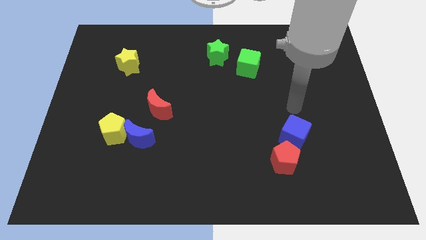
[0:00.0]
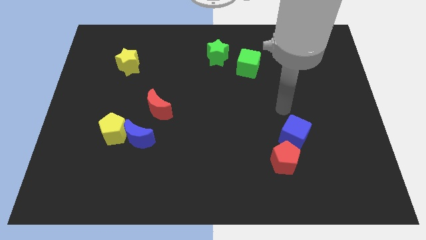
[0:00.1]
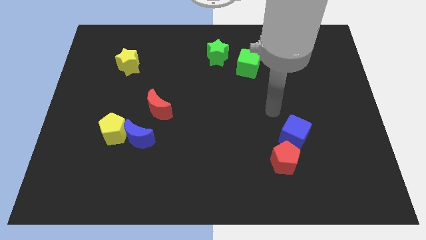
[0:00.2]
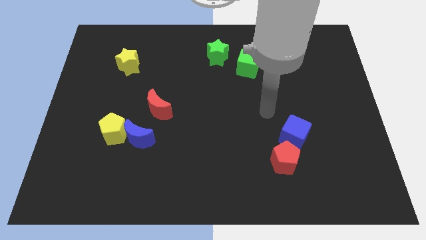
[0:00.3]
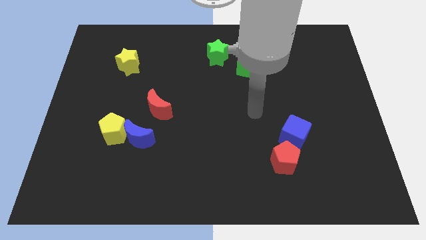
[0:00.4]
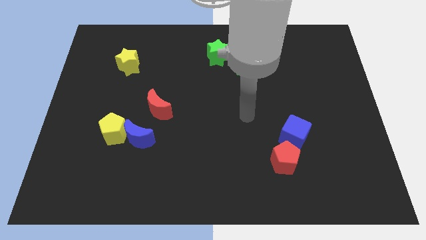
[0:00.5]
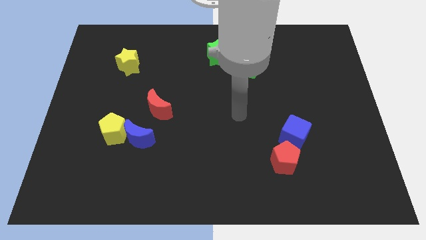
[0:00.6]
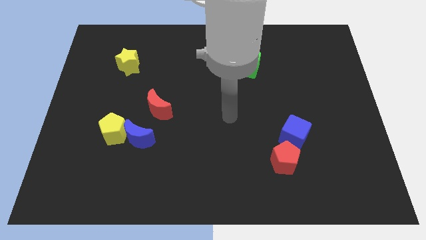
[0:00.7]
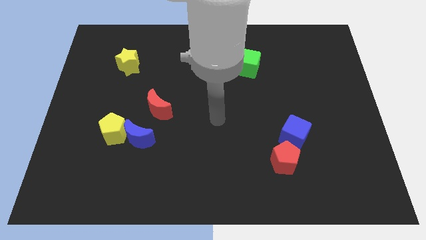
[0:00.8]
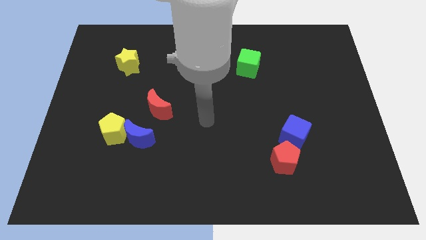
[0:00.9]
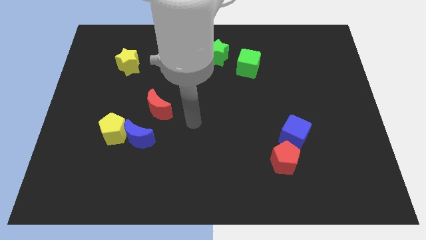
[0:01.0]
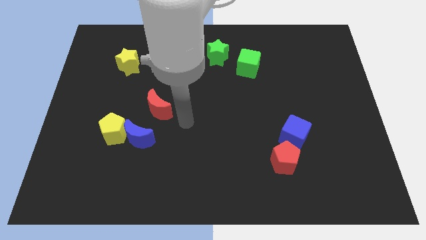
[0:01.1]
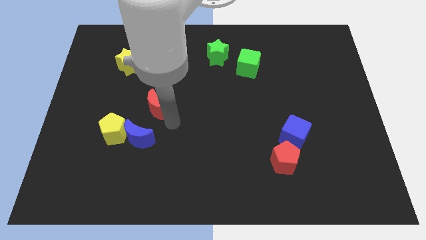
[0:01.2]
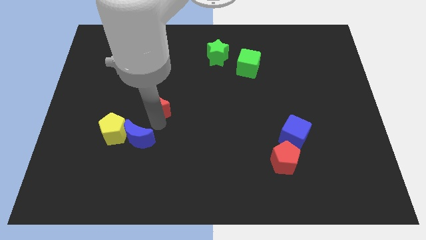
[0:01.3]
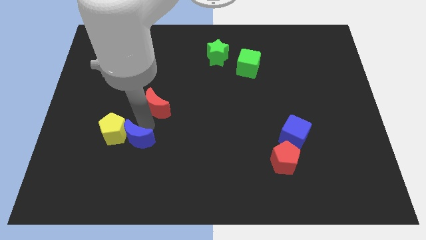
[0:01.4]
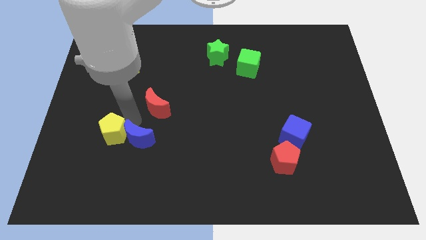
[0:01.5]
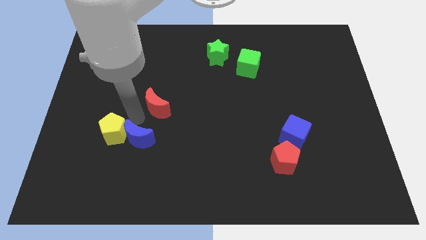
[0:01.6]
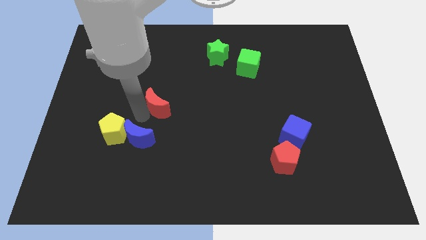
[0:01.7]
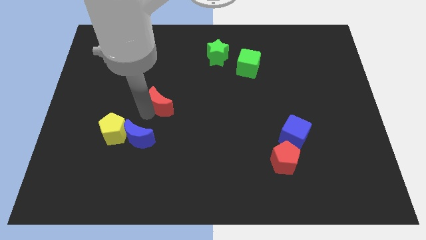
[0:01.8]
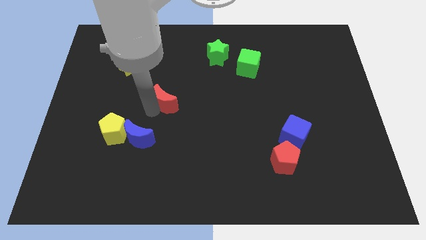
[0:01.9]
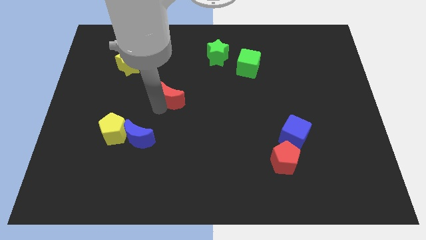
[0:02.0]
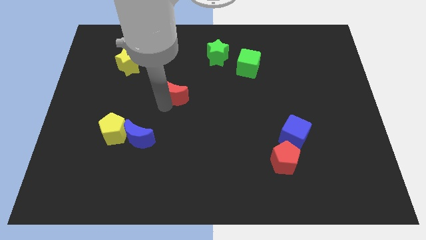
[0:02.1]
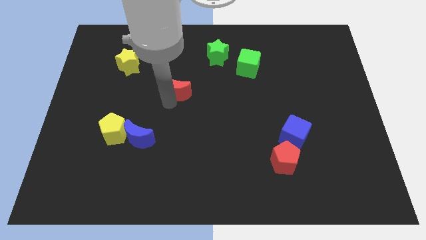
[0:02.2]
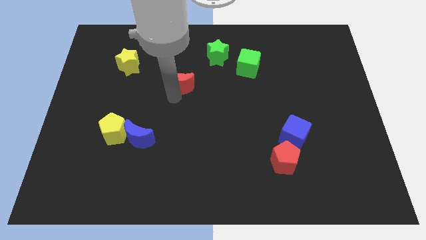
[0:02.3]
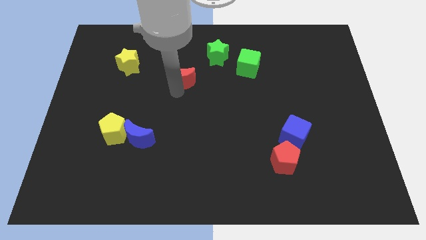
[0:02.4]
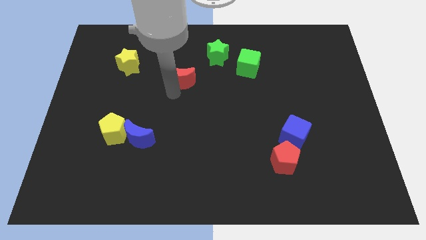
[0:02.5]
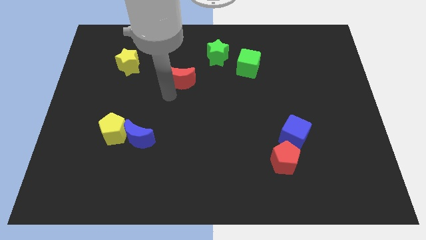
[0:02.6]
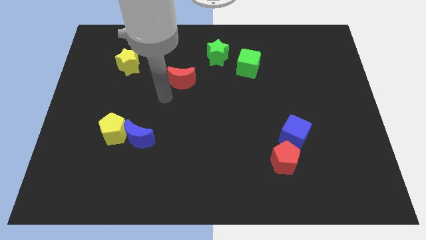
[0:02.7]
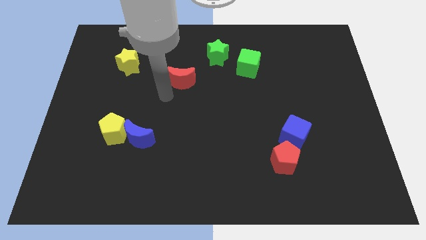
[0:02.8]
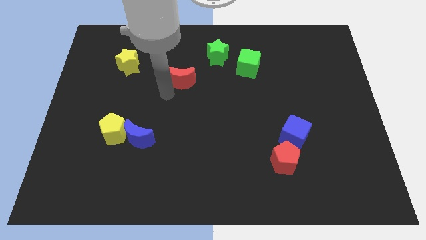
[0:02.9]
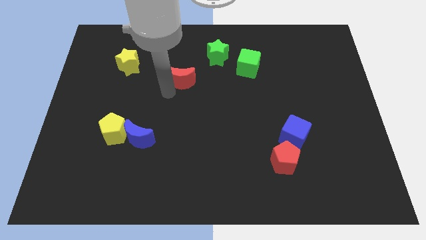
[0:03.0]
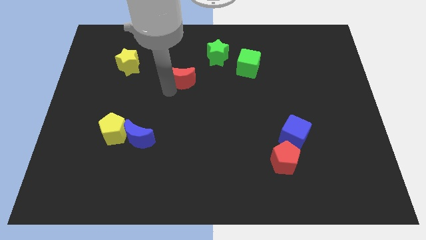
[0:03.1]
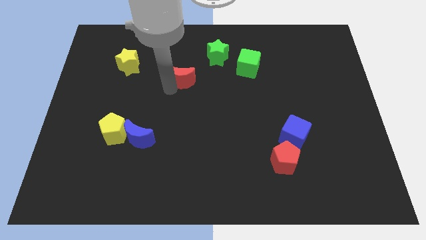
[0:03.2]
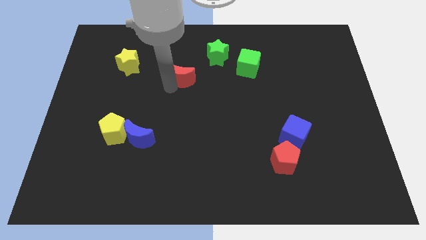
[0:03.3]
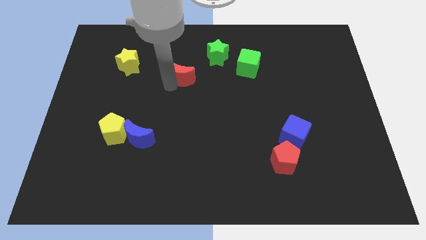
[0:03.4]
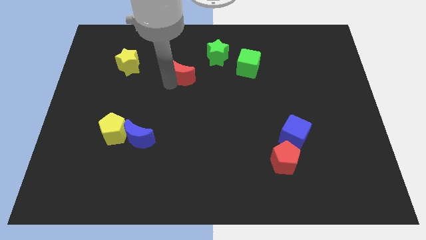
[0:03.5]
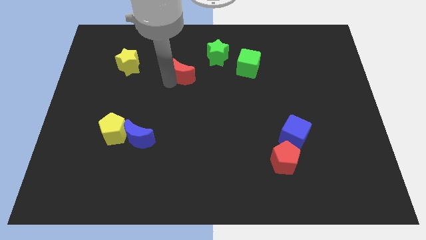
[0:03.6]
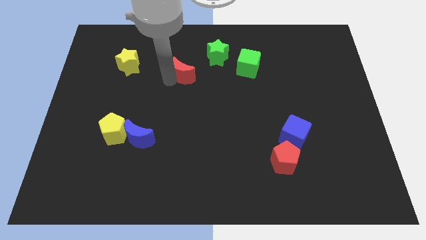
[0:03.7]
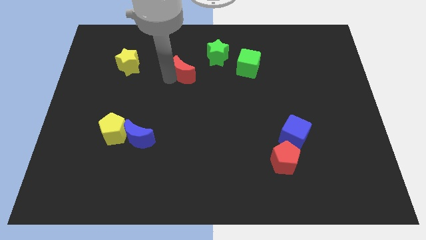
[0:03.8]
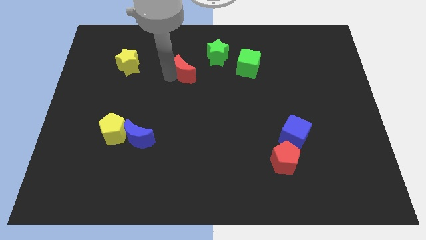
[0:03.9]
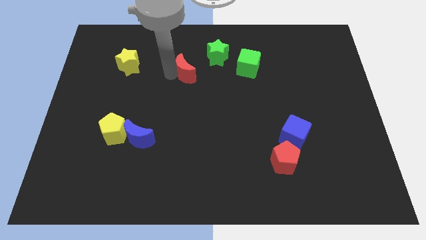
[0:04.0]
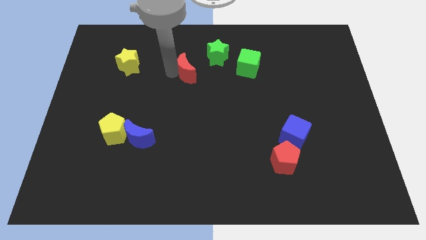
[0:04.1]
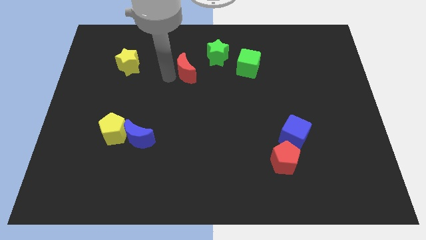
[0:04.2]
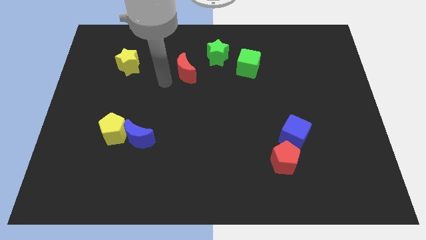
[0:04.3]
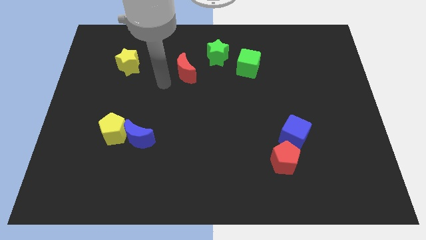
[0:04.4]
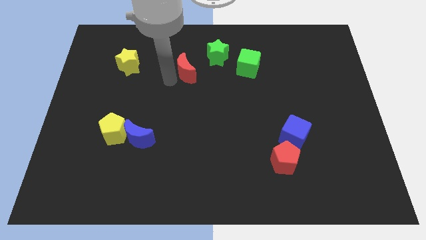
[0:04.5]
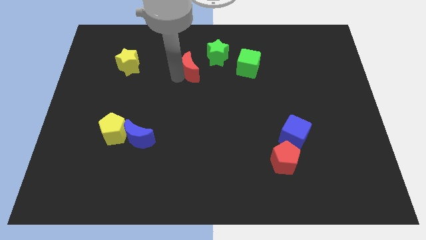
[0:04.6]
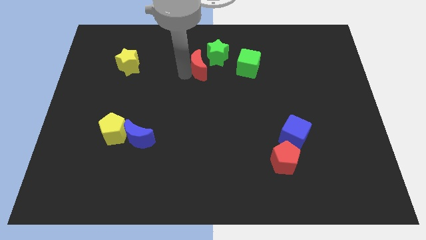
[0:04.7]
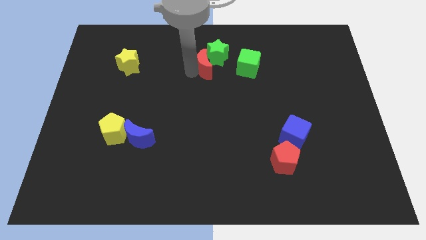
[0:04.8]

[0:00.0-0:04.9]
move the red moon towards the green star

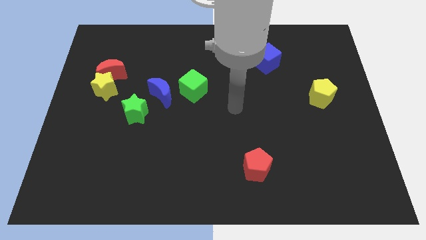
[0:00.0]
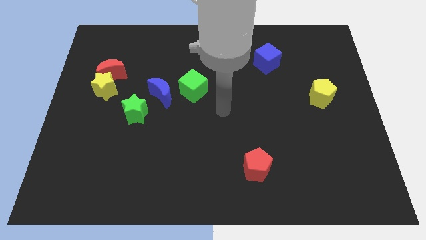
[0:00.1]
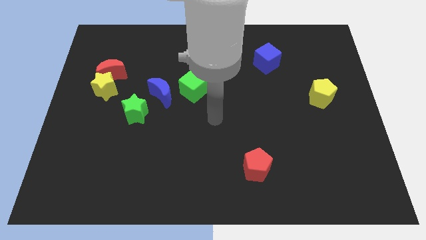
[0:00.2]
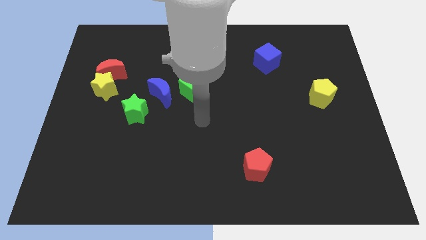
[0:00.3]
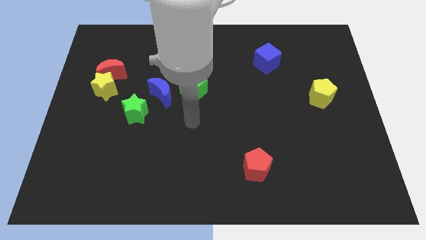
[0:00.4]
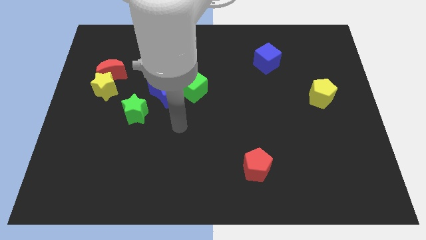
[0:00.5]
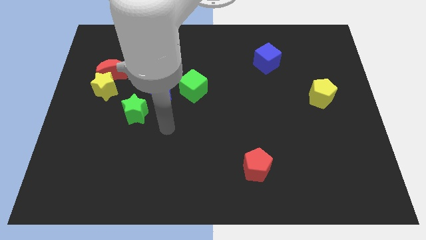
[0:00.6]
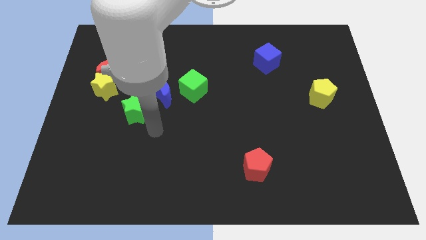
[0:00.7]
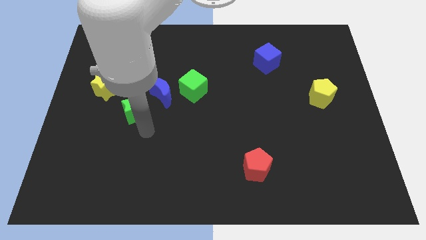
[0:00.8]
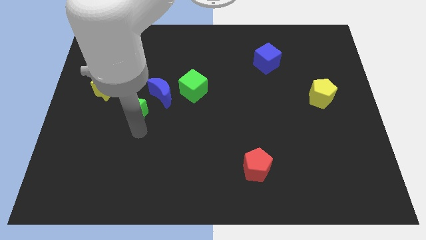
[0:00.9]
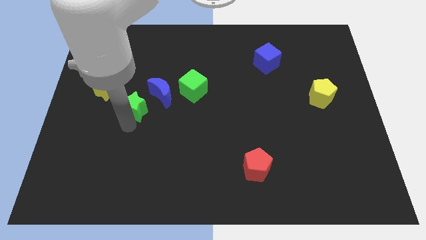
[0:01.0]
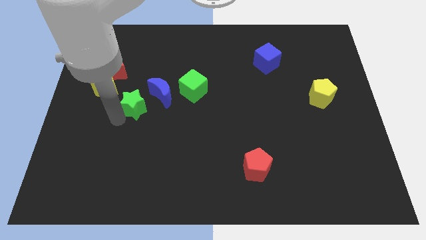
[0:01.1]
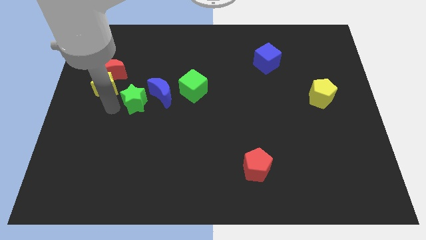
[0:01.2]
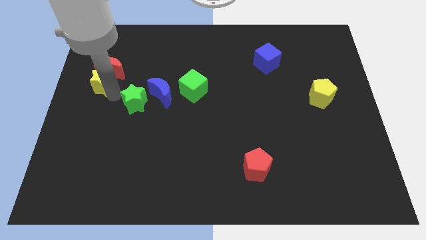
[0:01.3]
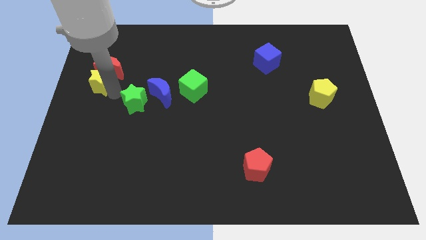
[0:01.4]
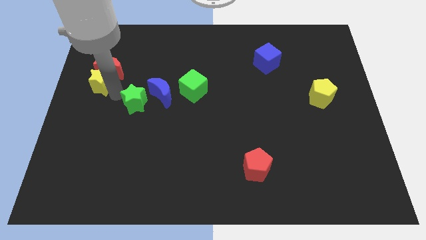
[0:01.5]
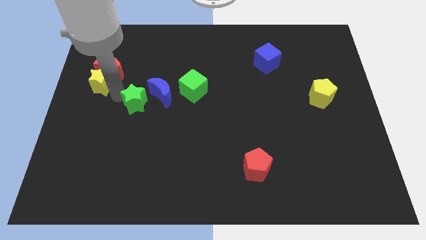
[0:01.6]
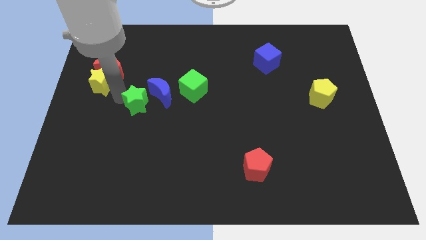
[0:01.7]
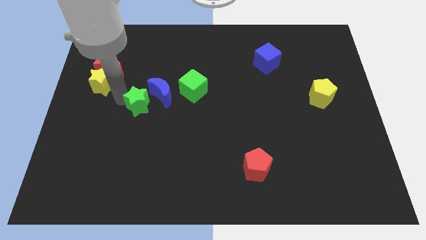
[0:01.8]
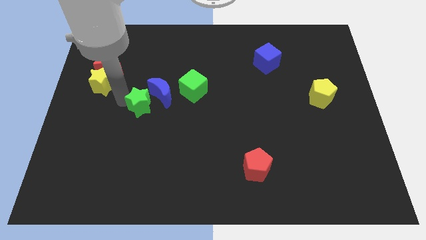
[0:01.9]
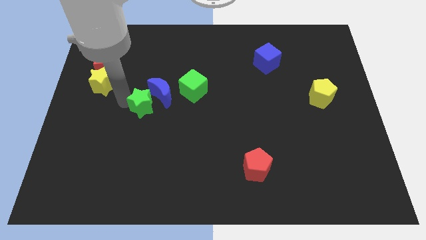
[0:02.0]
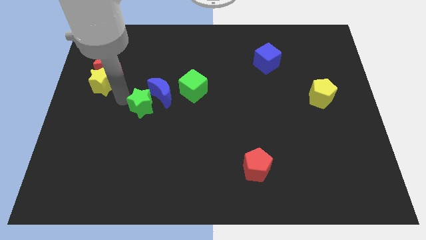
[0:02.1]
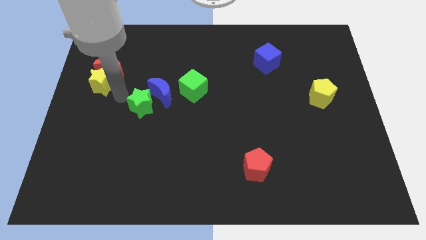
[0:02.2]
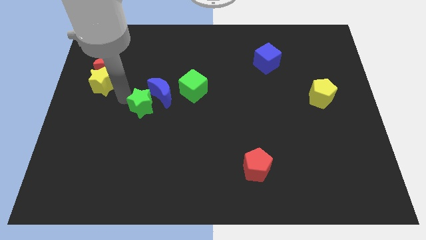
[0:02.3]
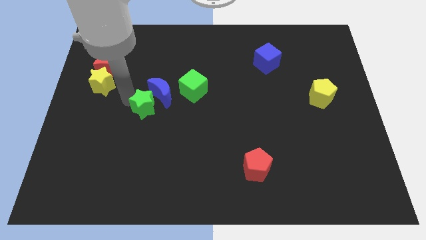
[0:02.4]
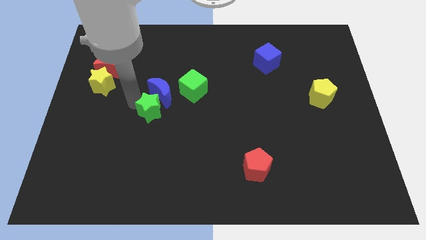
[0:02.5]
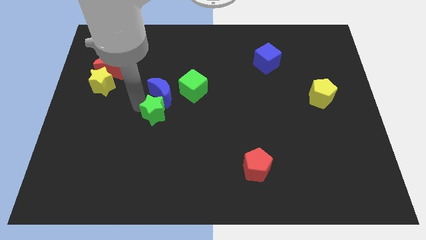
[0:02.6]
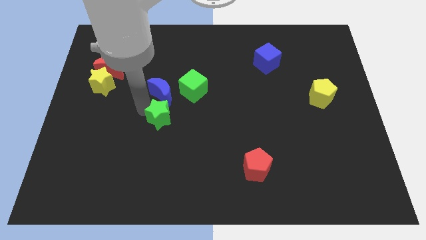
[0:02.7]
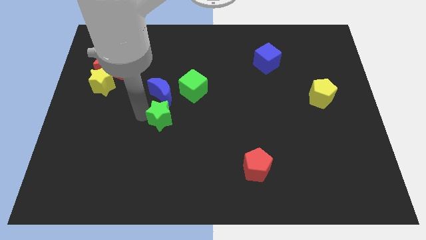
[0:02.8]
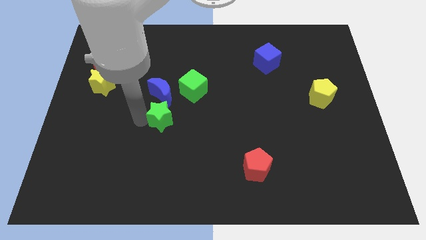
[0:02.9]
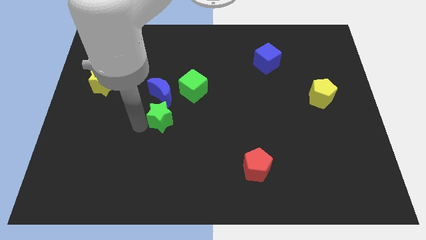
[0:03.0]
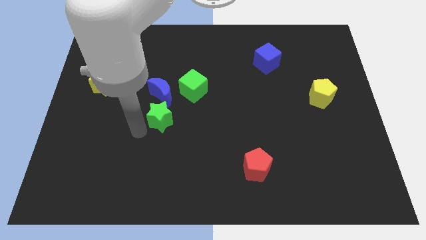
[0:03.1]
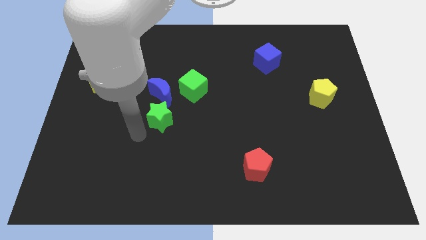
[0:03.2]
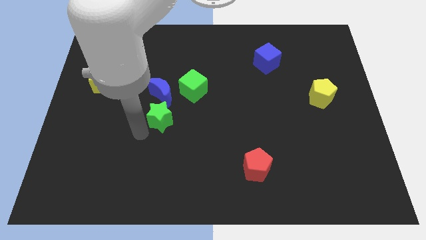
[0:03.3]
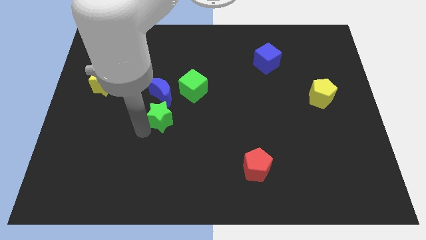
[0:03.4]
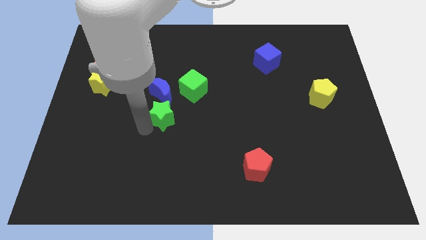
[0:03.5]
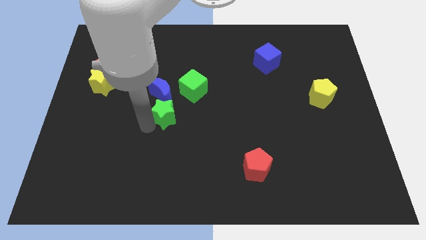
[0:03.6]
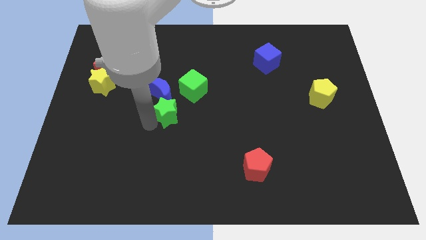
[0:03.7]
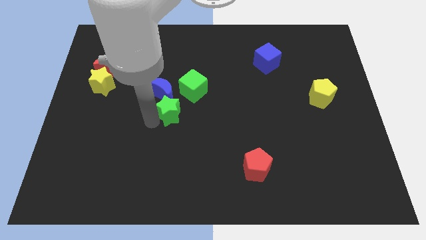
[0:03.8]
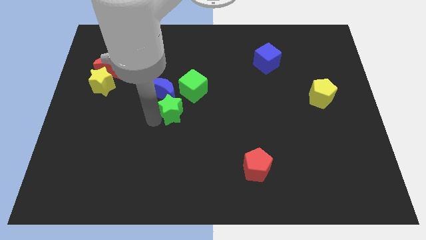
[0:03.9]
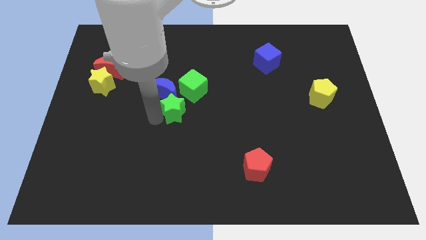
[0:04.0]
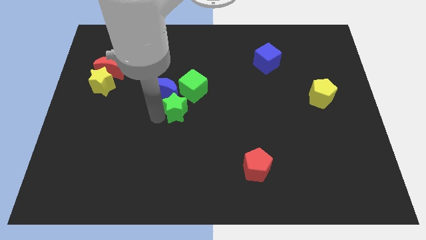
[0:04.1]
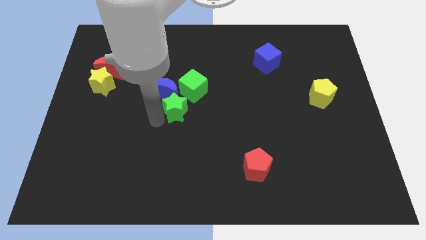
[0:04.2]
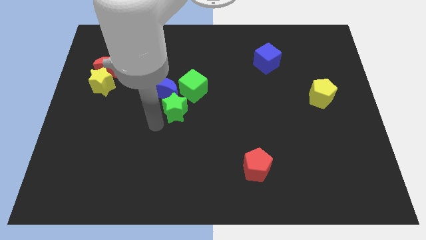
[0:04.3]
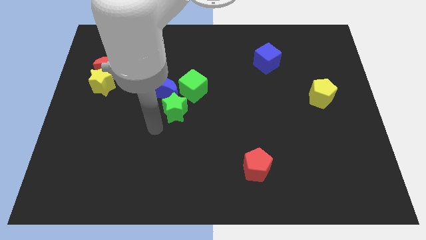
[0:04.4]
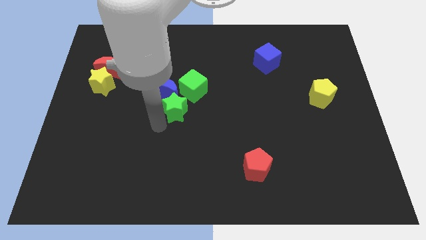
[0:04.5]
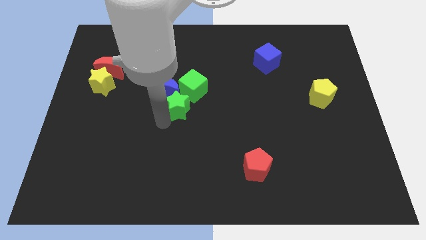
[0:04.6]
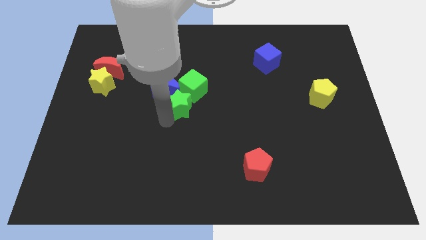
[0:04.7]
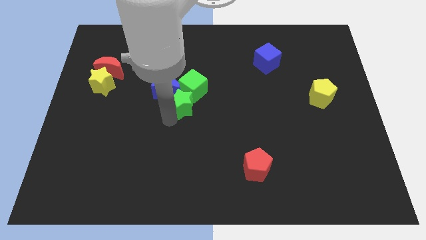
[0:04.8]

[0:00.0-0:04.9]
slide the green star to the green cube
